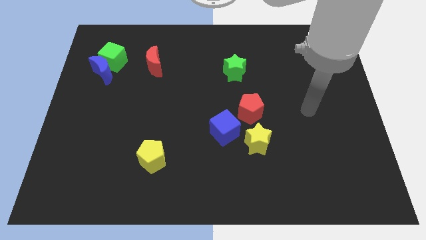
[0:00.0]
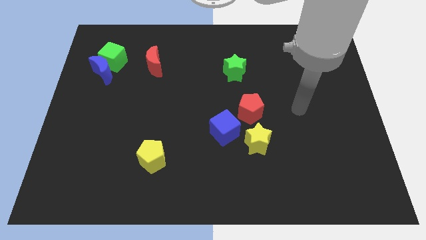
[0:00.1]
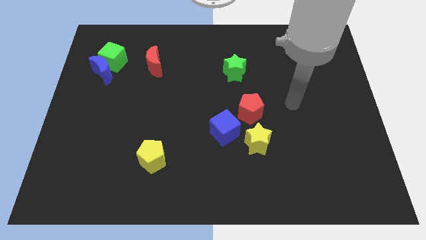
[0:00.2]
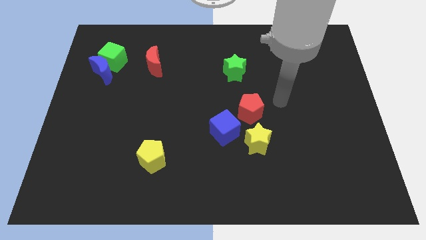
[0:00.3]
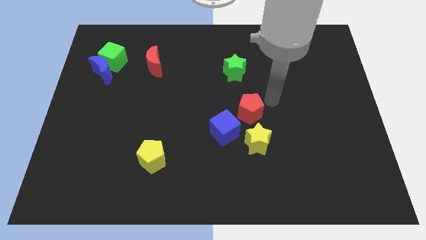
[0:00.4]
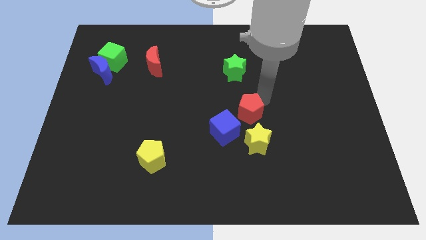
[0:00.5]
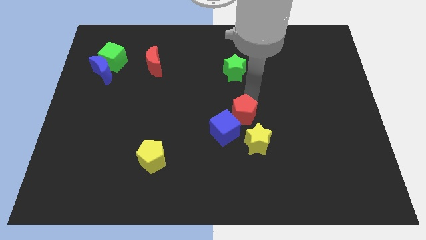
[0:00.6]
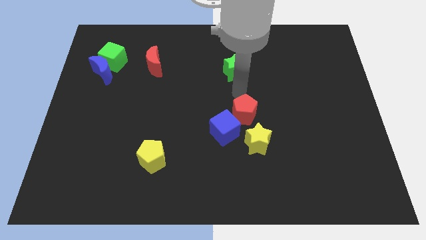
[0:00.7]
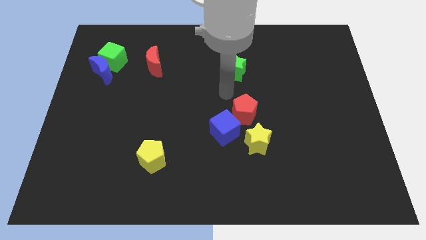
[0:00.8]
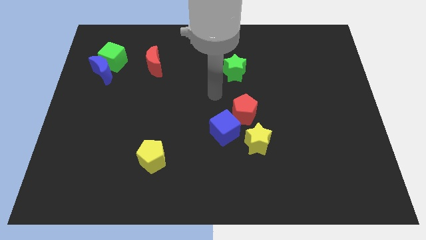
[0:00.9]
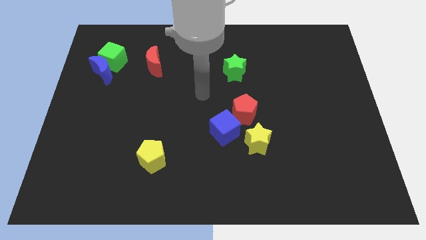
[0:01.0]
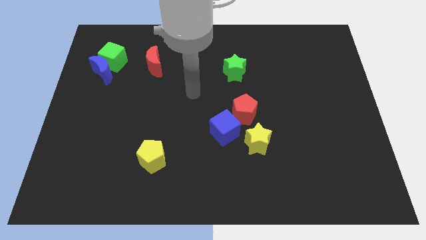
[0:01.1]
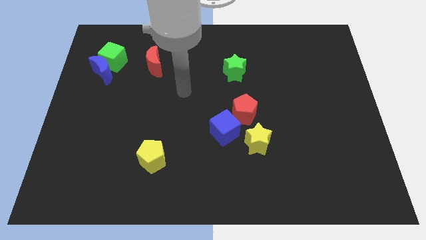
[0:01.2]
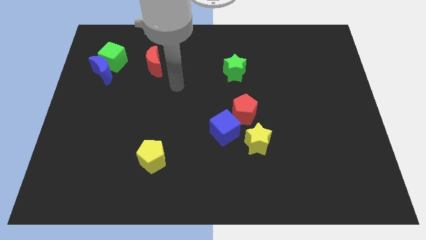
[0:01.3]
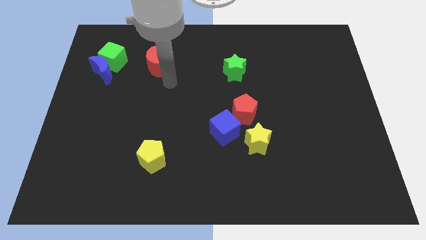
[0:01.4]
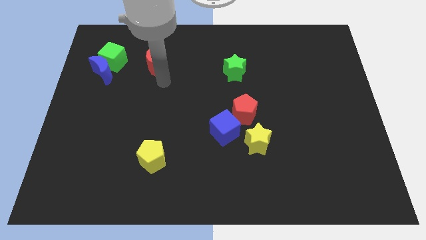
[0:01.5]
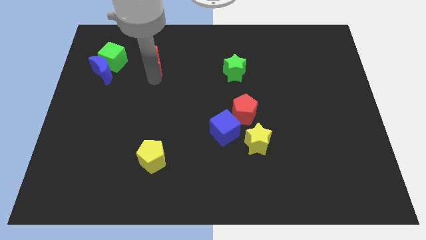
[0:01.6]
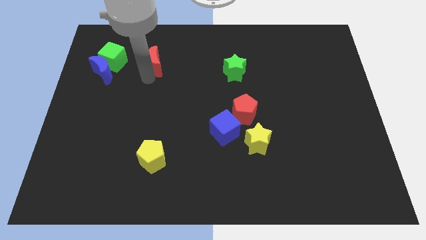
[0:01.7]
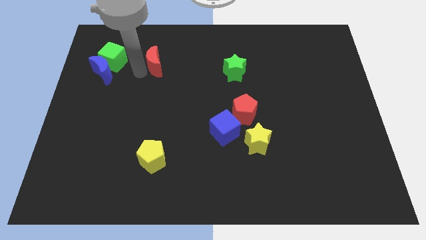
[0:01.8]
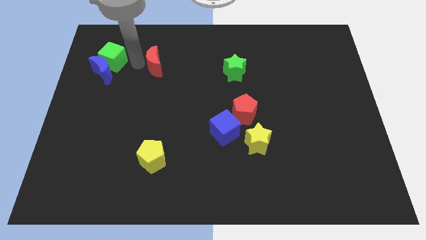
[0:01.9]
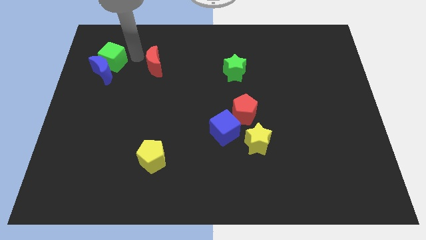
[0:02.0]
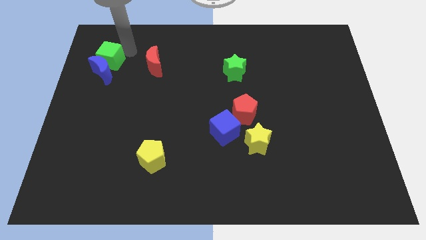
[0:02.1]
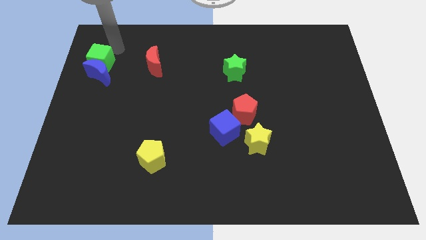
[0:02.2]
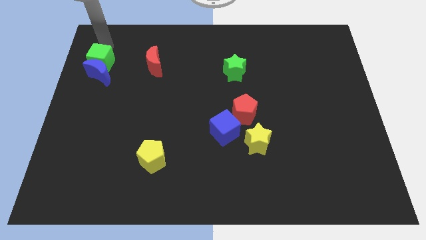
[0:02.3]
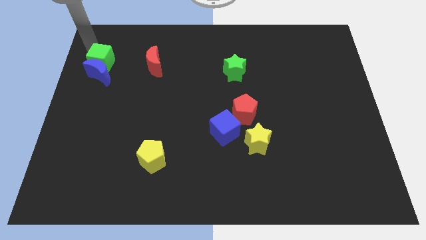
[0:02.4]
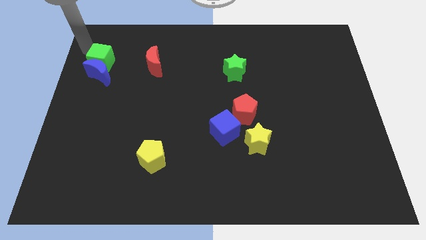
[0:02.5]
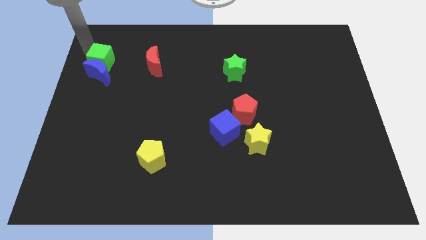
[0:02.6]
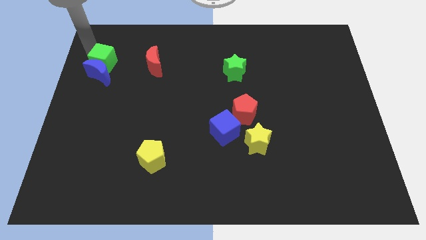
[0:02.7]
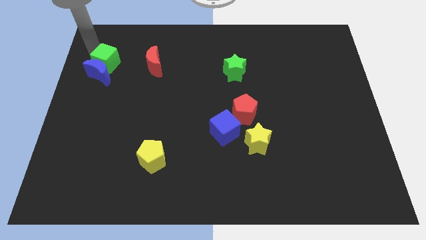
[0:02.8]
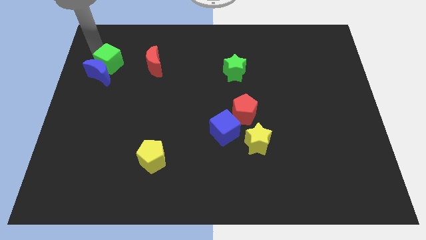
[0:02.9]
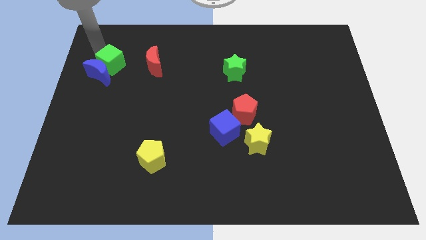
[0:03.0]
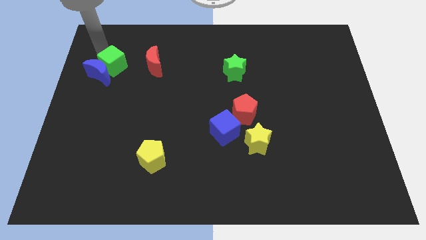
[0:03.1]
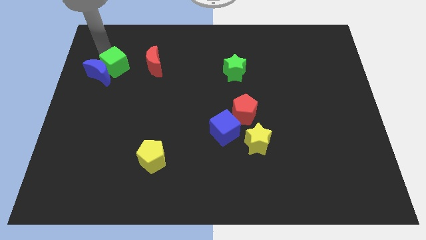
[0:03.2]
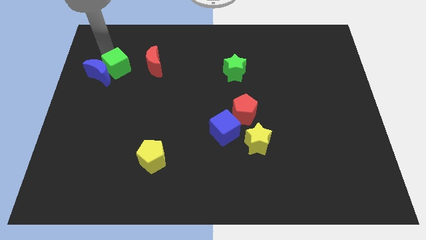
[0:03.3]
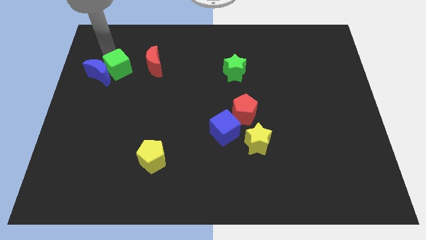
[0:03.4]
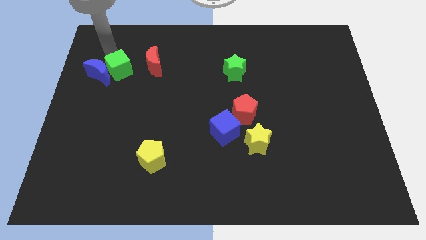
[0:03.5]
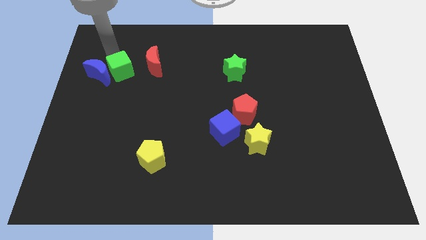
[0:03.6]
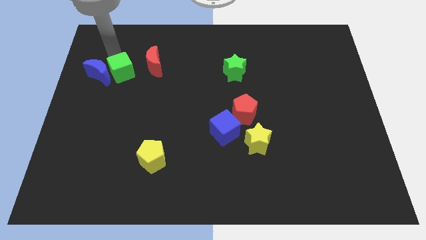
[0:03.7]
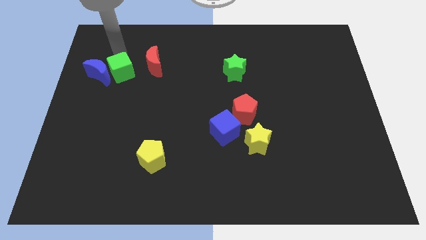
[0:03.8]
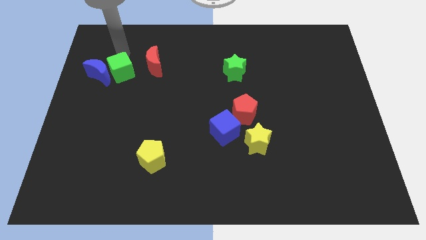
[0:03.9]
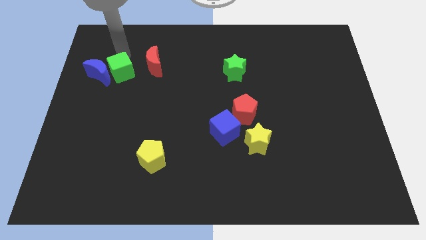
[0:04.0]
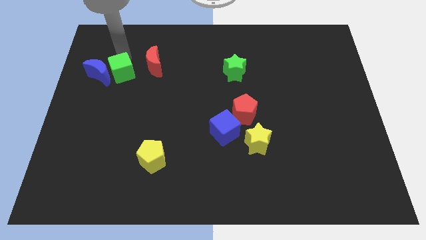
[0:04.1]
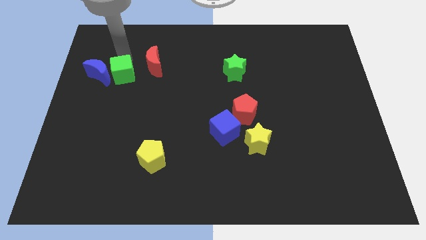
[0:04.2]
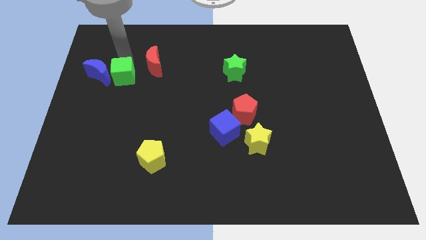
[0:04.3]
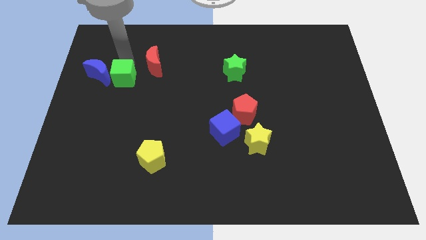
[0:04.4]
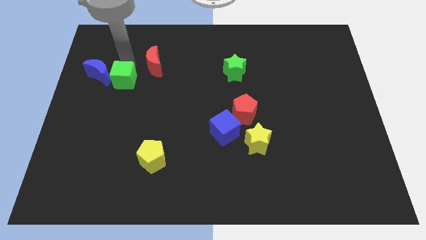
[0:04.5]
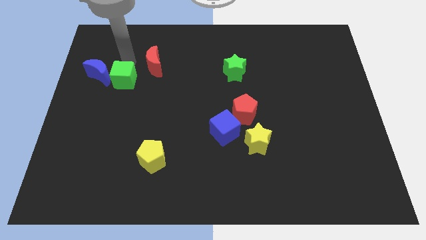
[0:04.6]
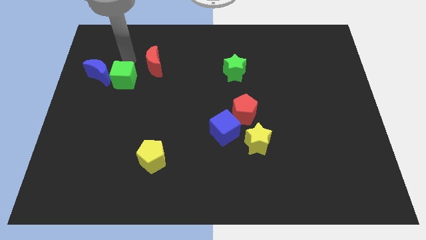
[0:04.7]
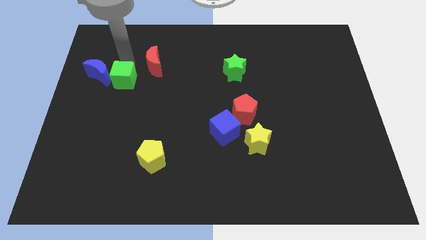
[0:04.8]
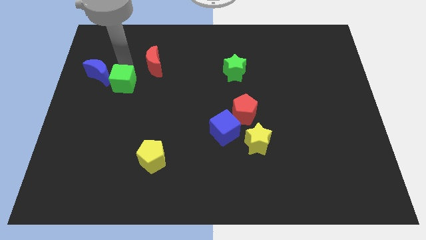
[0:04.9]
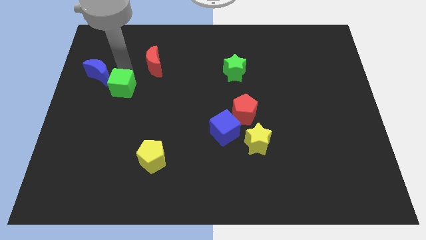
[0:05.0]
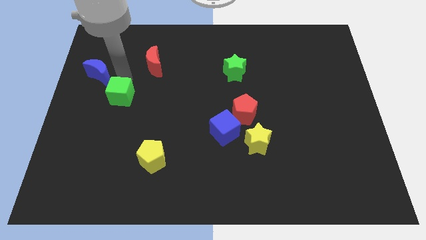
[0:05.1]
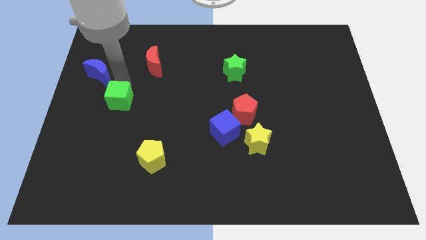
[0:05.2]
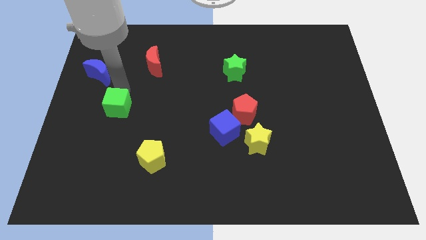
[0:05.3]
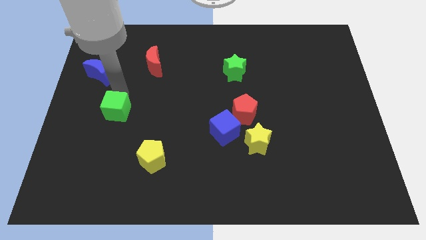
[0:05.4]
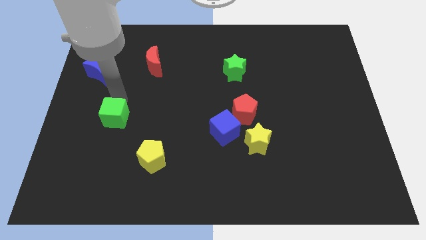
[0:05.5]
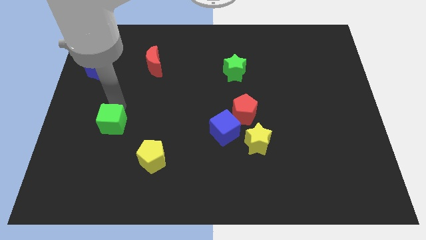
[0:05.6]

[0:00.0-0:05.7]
push the green cube down

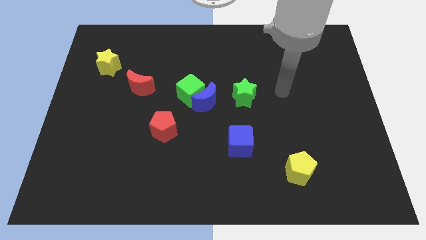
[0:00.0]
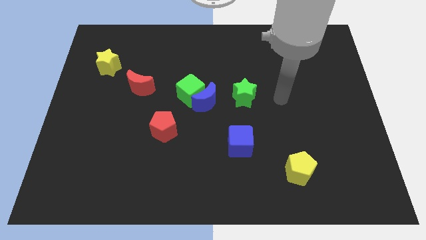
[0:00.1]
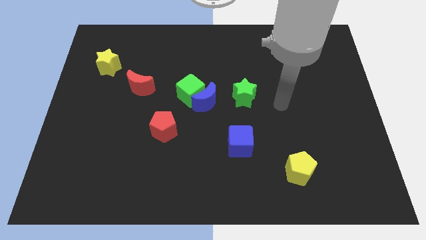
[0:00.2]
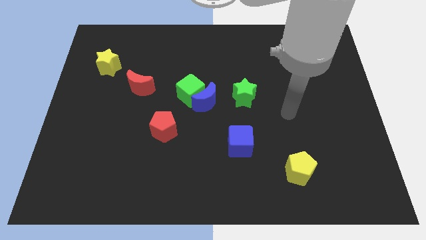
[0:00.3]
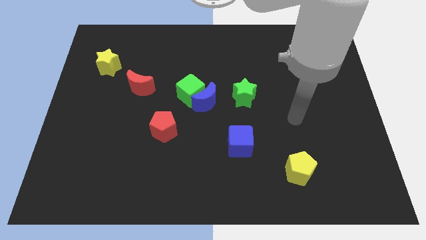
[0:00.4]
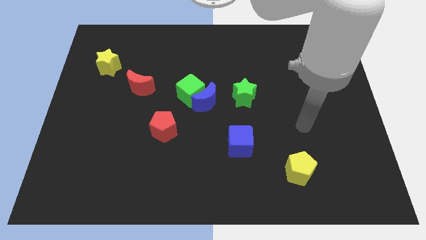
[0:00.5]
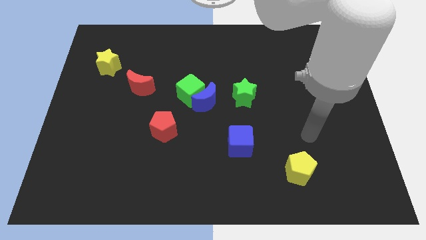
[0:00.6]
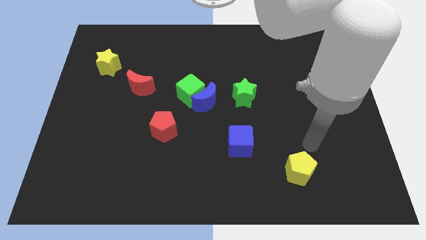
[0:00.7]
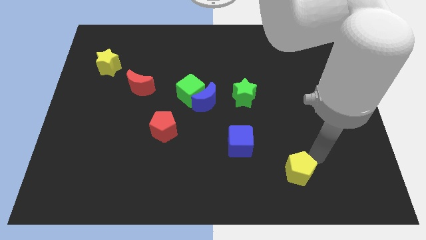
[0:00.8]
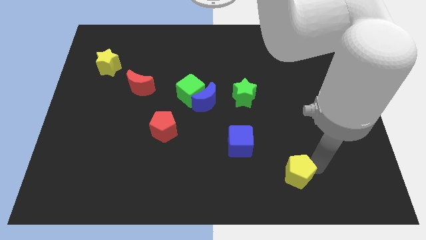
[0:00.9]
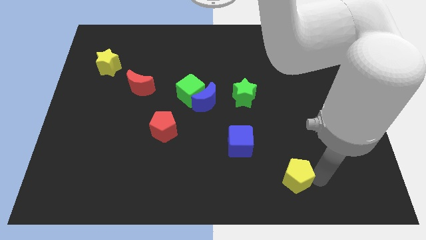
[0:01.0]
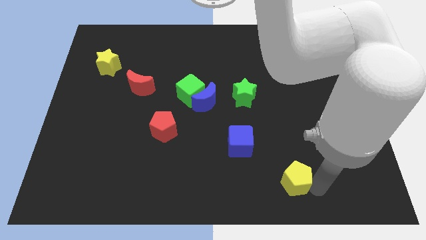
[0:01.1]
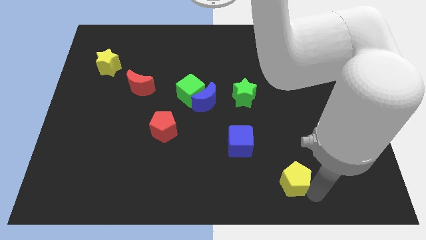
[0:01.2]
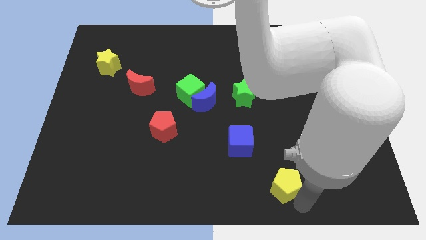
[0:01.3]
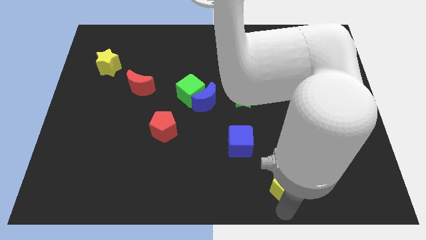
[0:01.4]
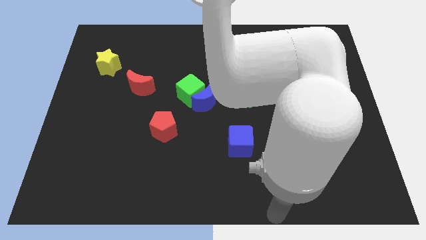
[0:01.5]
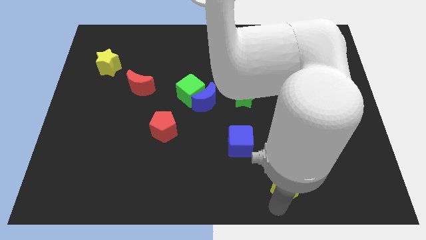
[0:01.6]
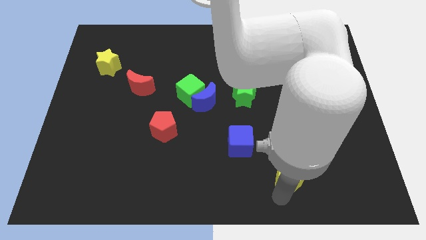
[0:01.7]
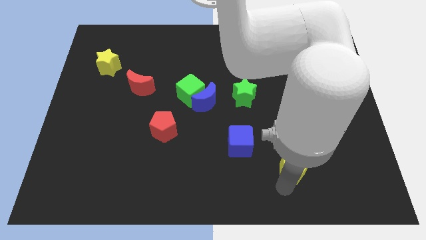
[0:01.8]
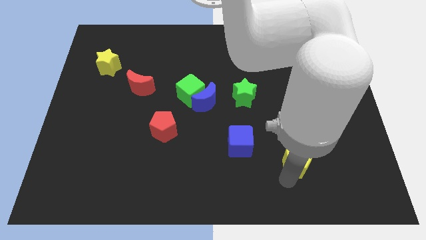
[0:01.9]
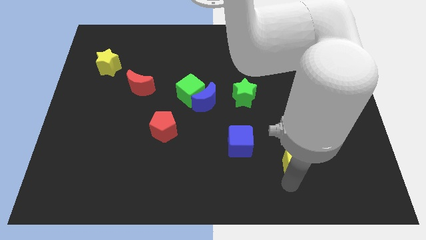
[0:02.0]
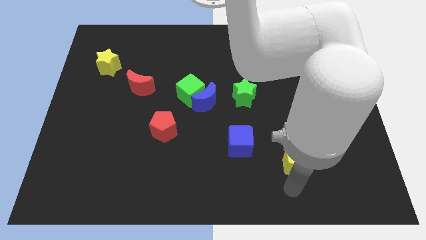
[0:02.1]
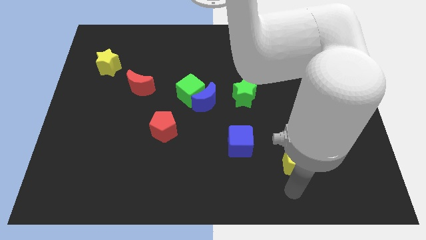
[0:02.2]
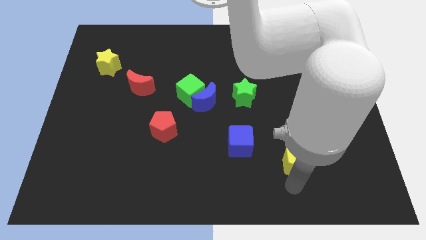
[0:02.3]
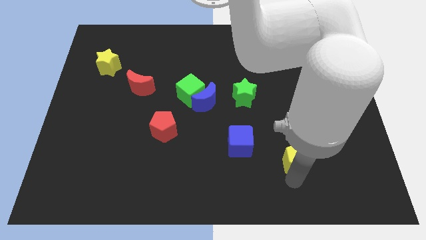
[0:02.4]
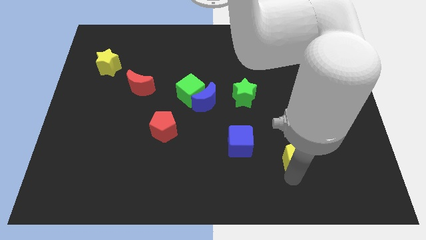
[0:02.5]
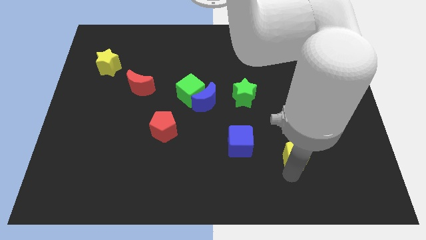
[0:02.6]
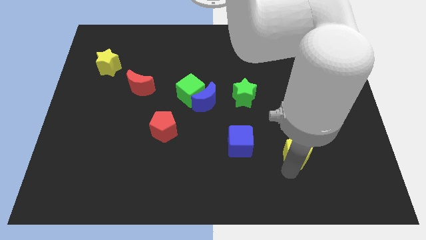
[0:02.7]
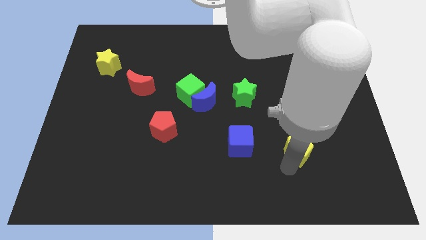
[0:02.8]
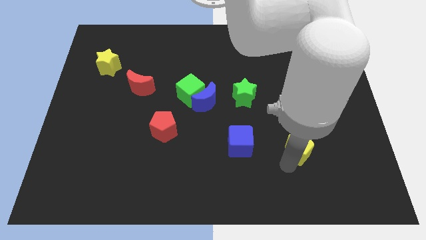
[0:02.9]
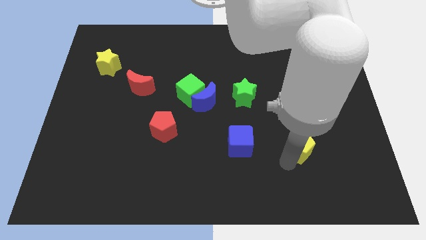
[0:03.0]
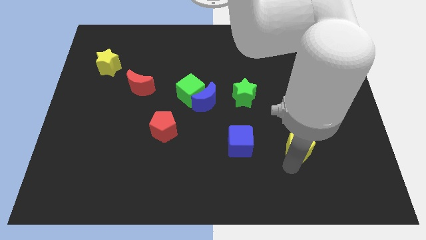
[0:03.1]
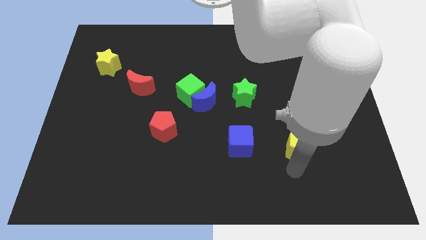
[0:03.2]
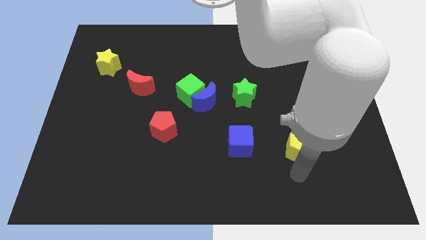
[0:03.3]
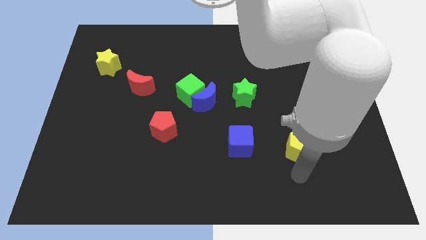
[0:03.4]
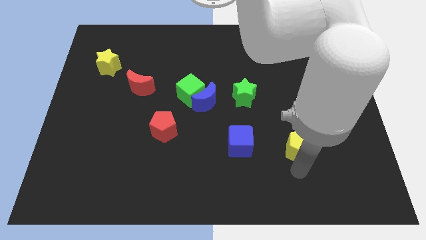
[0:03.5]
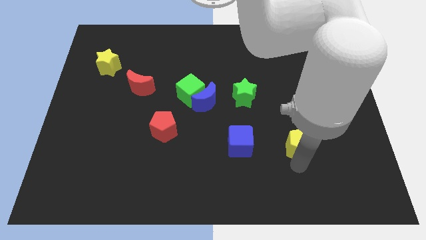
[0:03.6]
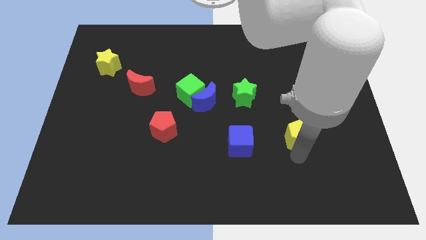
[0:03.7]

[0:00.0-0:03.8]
slightly move the yellow pentagon upwards
